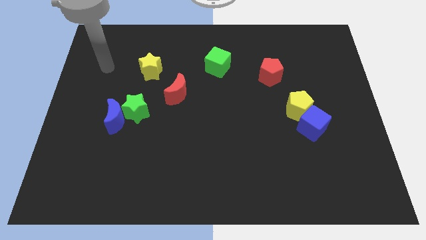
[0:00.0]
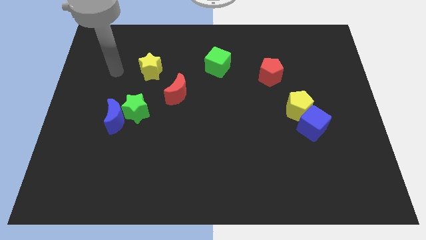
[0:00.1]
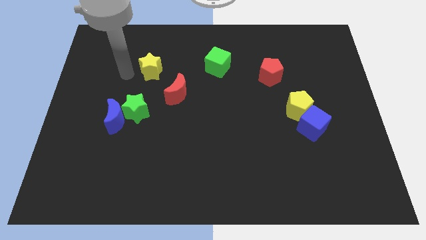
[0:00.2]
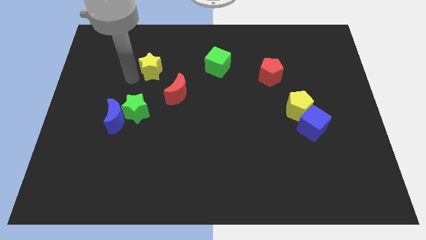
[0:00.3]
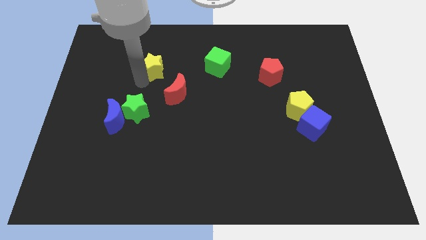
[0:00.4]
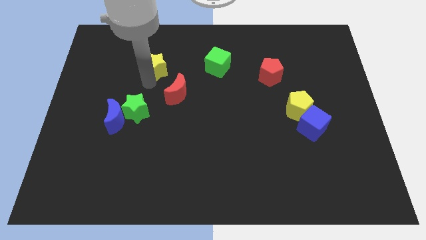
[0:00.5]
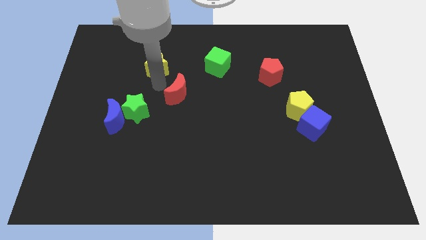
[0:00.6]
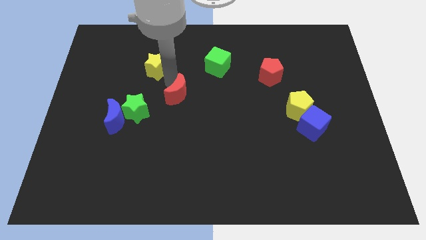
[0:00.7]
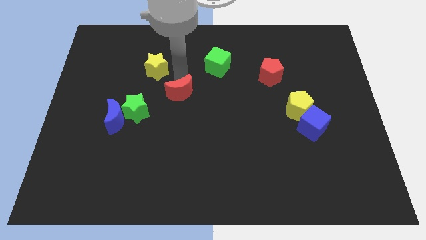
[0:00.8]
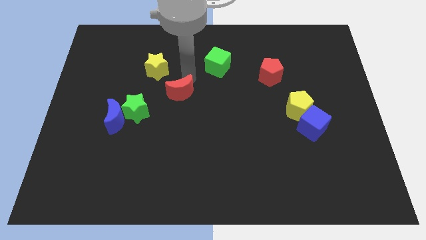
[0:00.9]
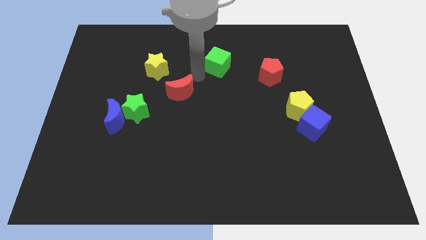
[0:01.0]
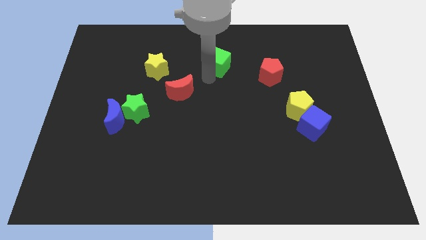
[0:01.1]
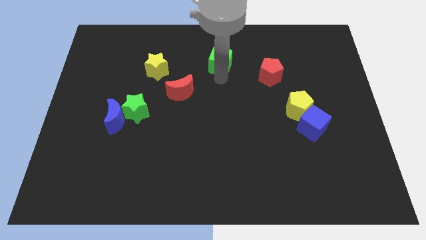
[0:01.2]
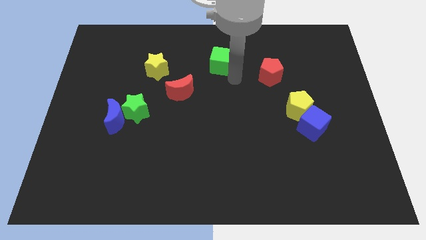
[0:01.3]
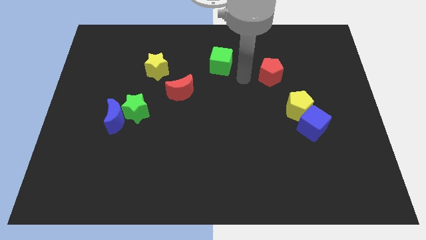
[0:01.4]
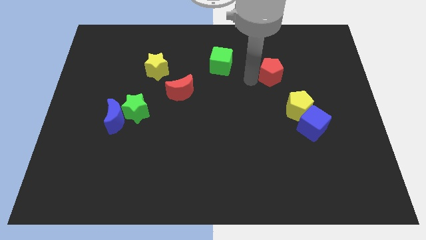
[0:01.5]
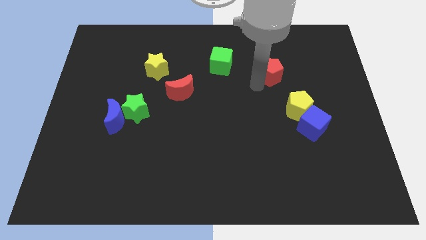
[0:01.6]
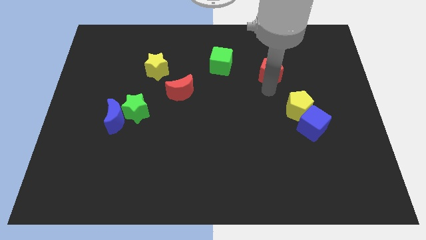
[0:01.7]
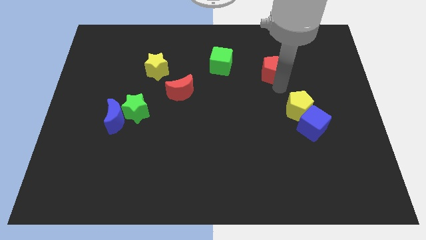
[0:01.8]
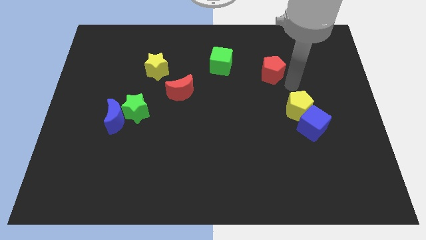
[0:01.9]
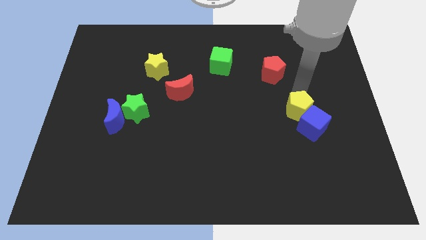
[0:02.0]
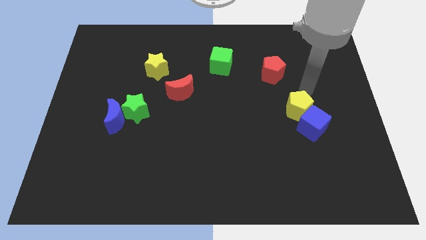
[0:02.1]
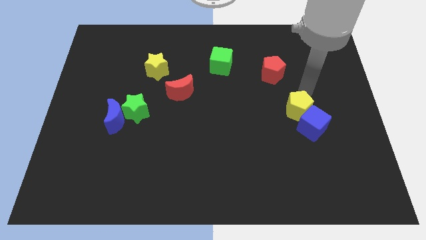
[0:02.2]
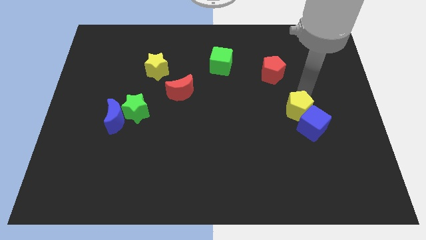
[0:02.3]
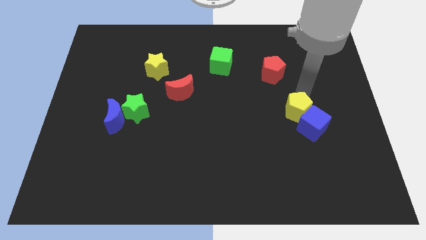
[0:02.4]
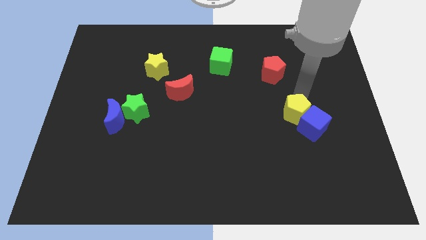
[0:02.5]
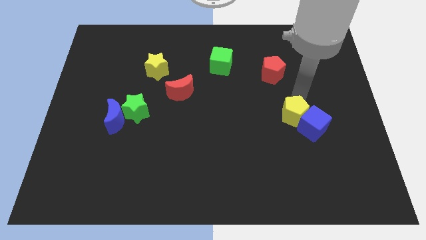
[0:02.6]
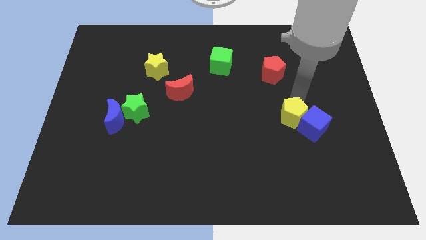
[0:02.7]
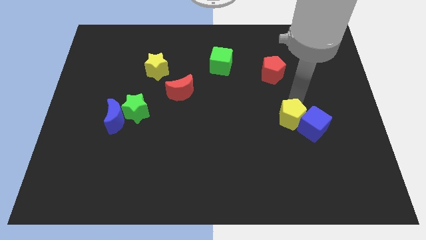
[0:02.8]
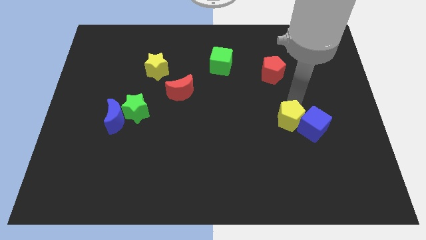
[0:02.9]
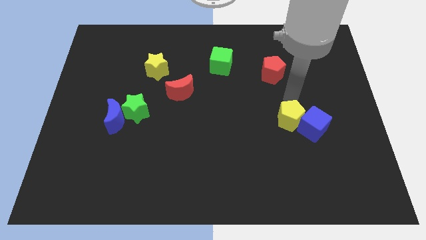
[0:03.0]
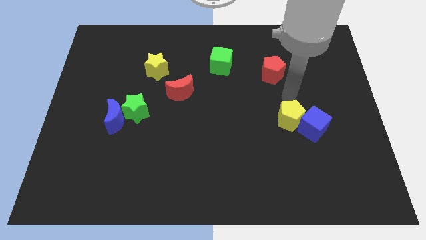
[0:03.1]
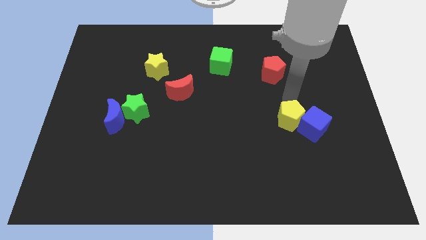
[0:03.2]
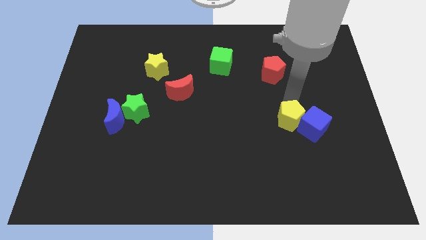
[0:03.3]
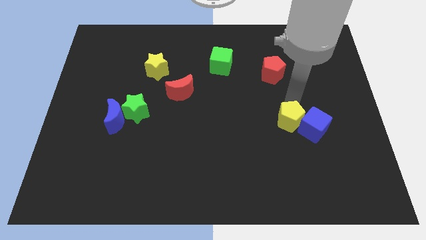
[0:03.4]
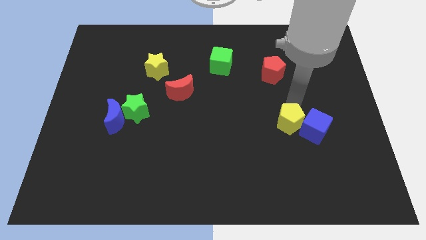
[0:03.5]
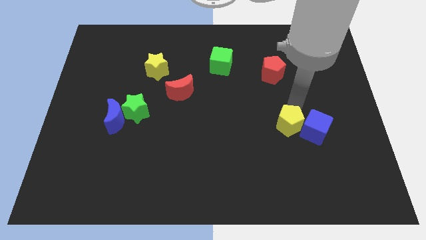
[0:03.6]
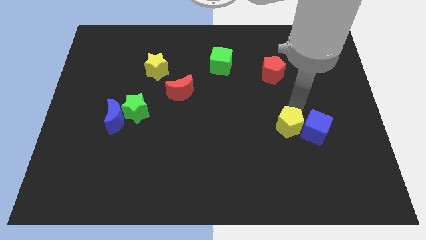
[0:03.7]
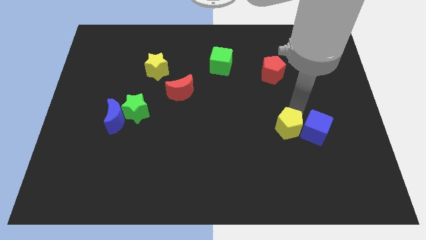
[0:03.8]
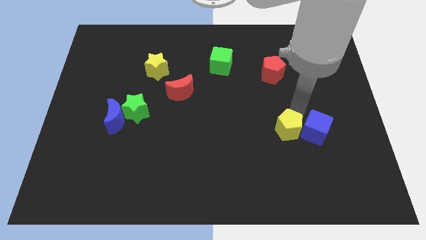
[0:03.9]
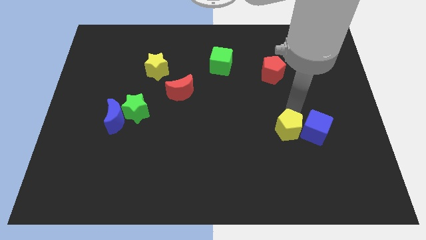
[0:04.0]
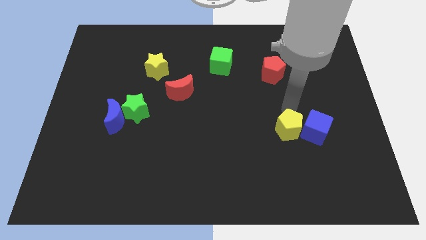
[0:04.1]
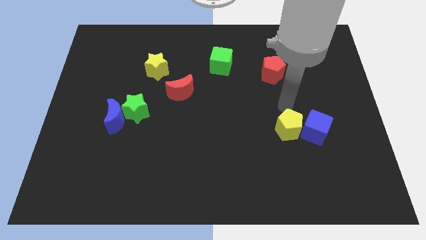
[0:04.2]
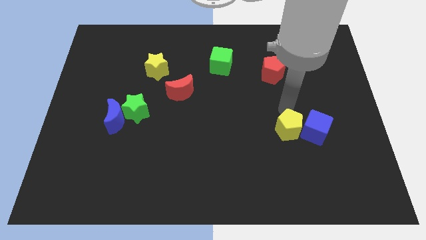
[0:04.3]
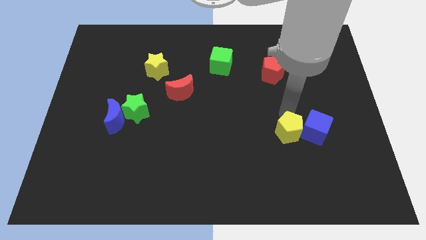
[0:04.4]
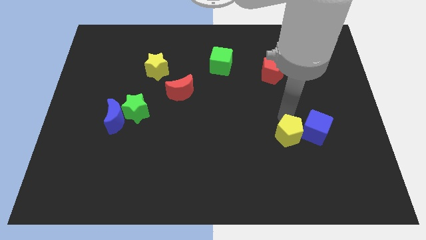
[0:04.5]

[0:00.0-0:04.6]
move the yellow pentagon downwards a bit

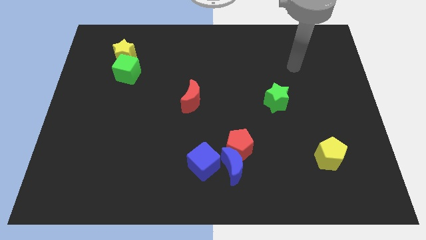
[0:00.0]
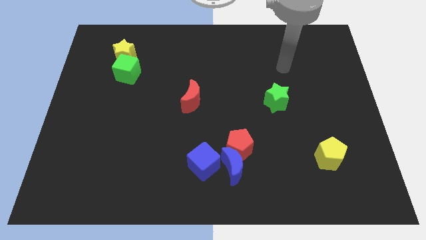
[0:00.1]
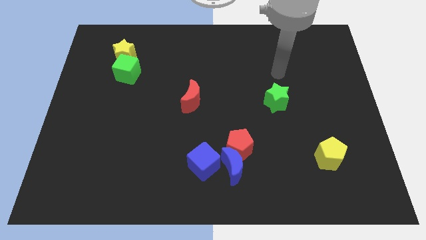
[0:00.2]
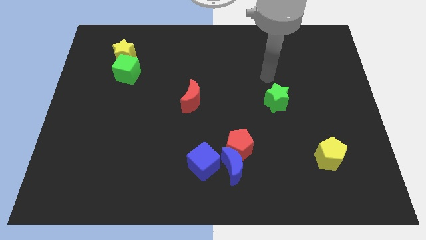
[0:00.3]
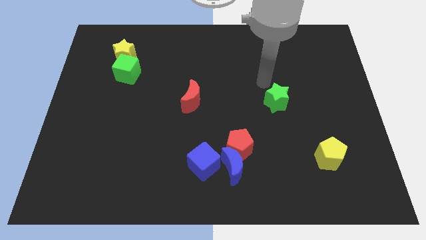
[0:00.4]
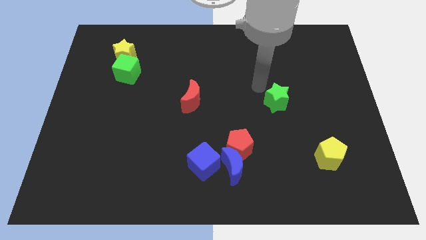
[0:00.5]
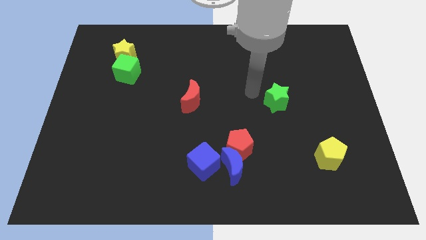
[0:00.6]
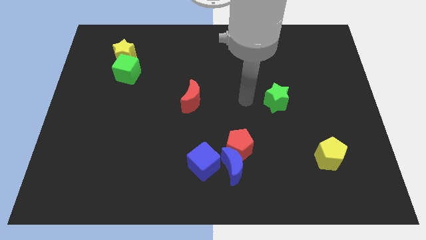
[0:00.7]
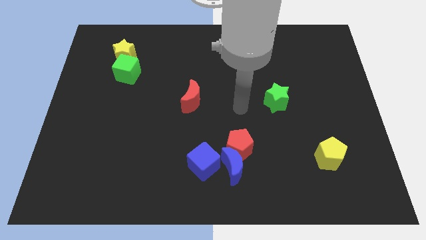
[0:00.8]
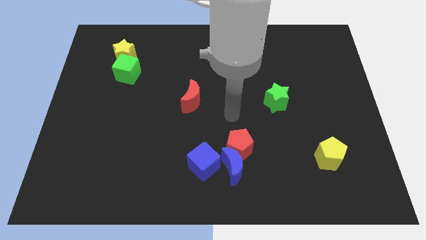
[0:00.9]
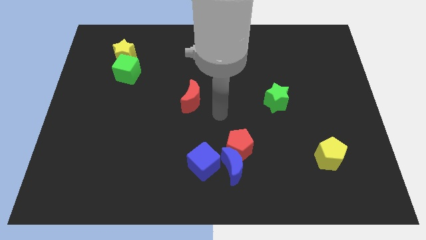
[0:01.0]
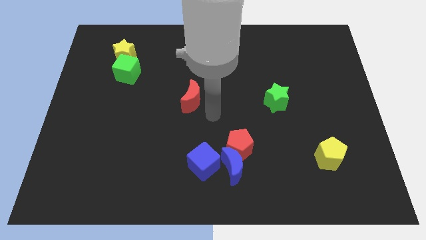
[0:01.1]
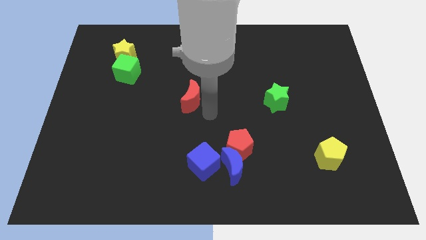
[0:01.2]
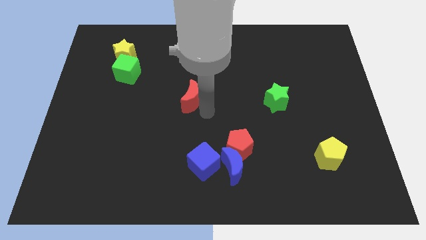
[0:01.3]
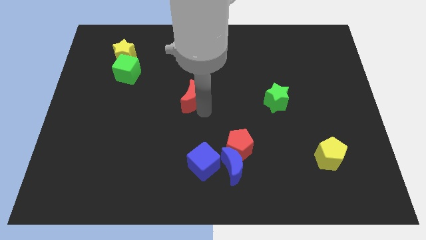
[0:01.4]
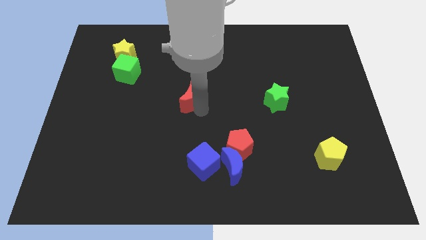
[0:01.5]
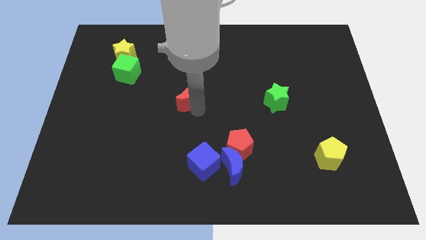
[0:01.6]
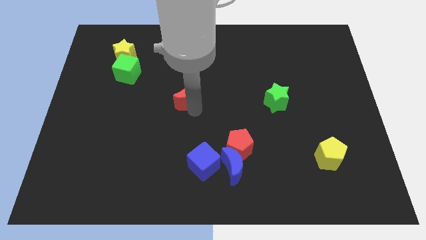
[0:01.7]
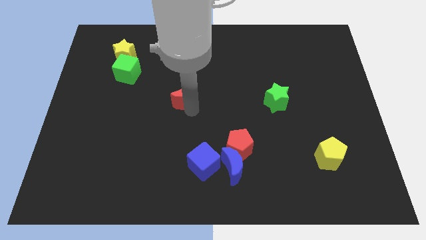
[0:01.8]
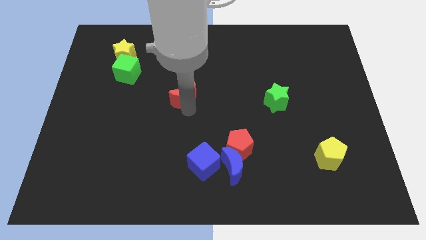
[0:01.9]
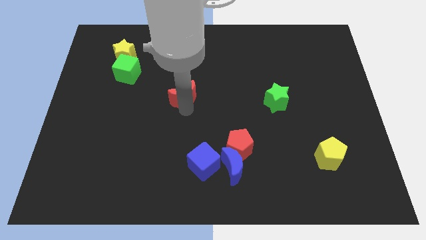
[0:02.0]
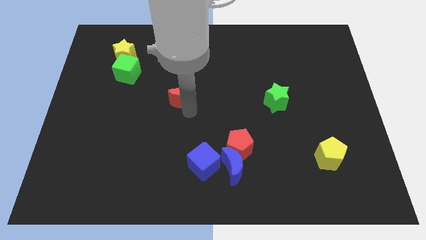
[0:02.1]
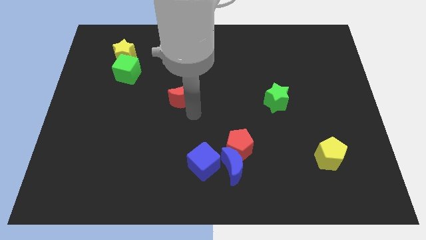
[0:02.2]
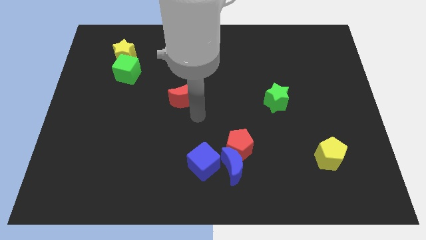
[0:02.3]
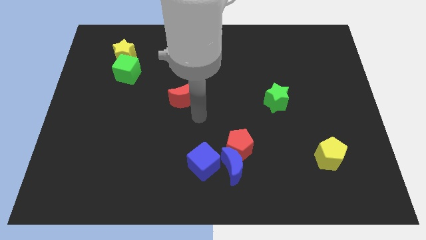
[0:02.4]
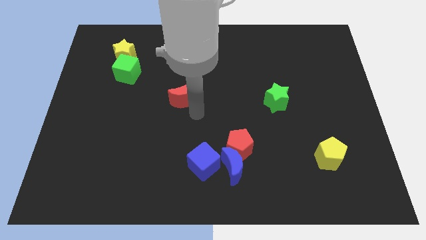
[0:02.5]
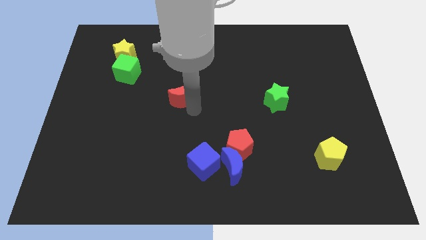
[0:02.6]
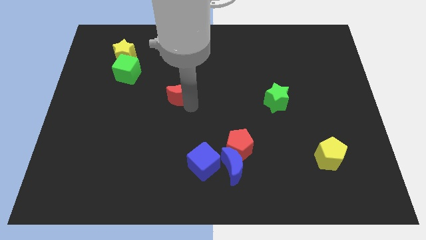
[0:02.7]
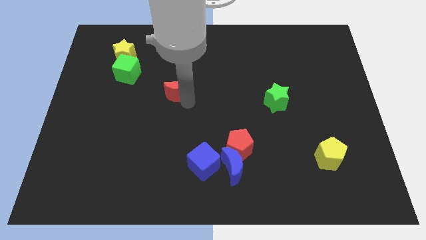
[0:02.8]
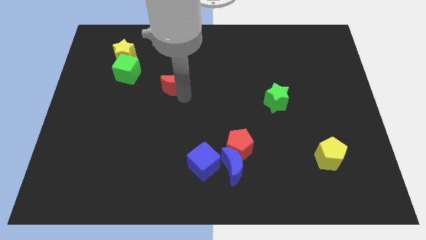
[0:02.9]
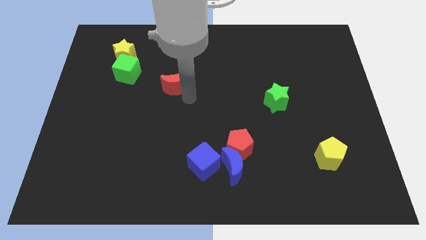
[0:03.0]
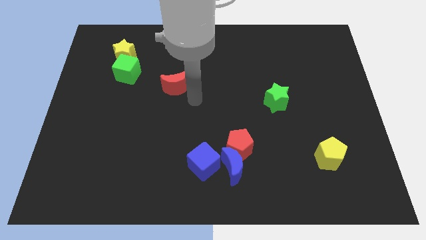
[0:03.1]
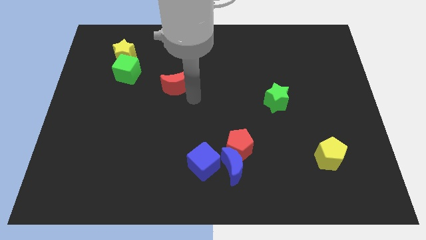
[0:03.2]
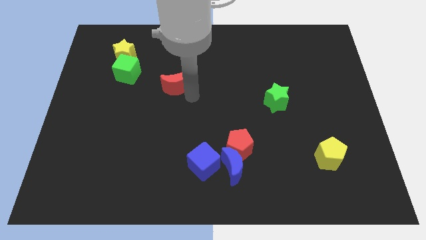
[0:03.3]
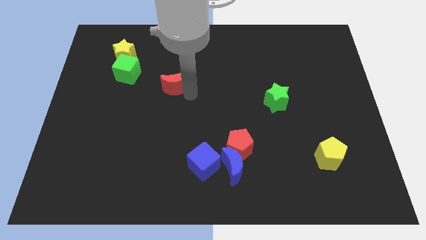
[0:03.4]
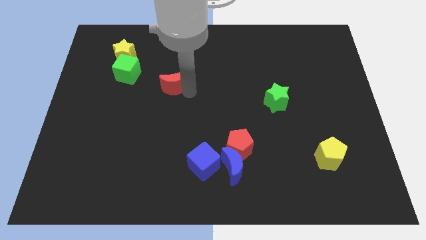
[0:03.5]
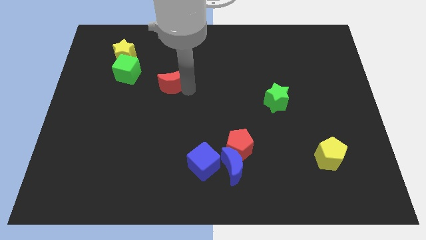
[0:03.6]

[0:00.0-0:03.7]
slightly slide the red moon up and to the left diagonally

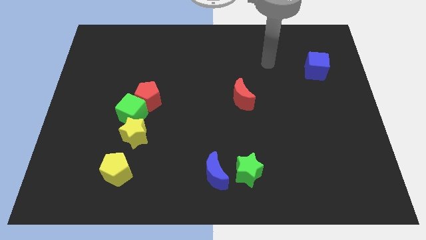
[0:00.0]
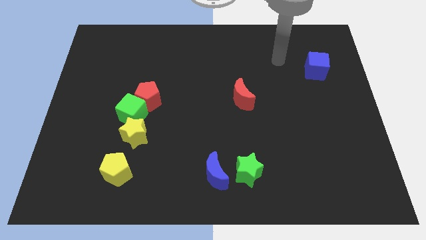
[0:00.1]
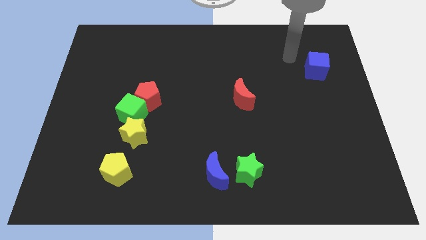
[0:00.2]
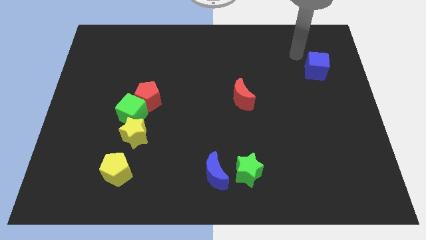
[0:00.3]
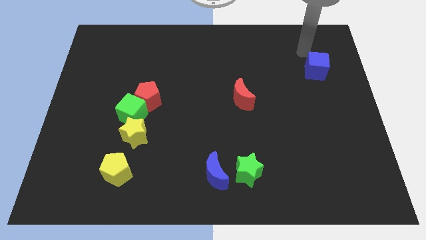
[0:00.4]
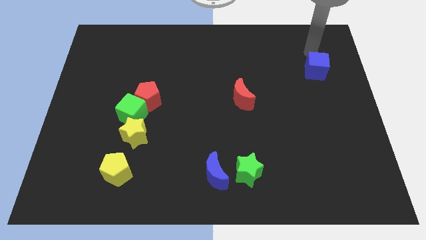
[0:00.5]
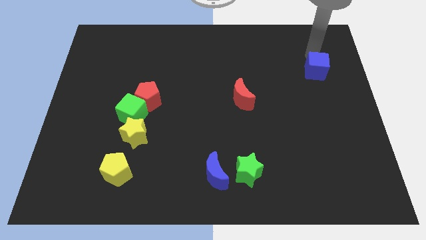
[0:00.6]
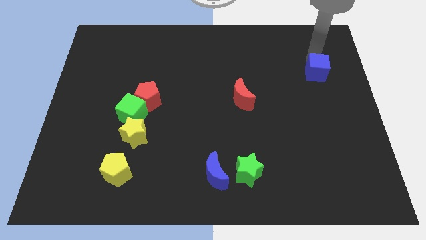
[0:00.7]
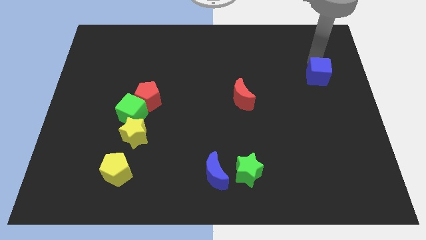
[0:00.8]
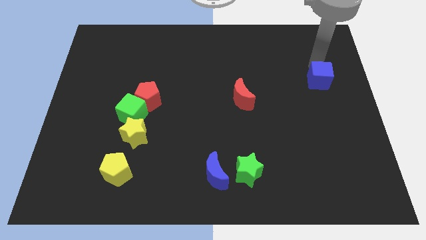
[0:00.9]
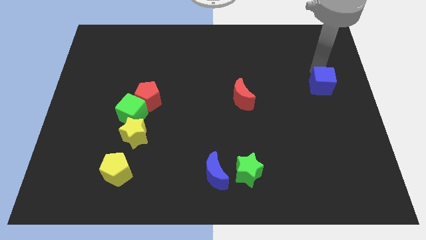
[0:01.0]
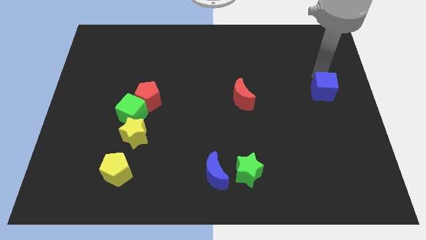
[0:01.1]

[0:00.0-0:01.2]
slide the blue cube somewhat down
